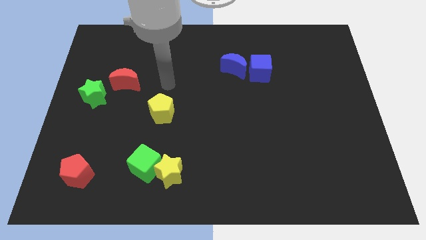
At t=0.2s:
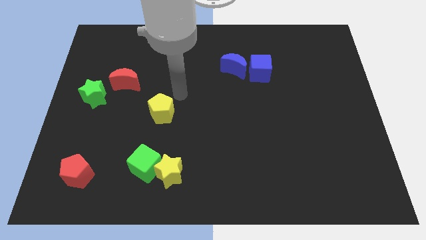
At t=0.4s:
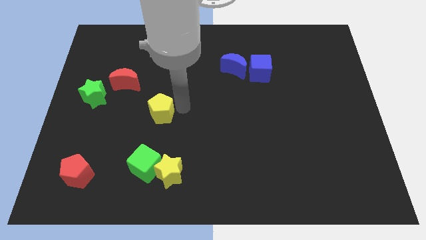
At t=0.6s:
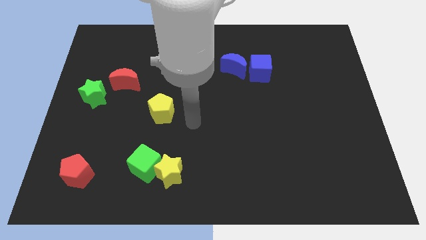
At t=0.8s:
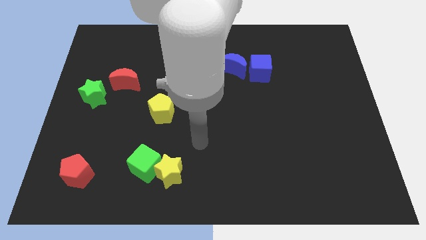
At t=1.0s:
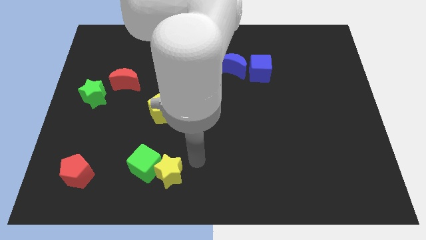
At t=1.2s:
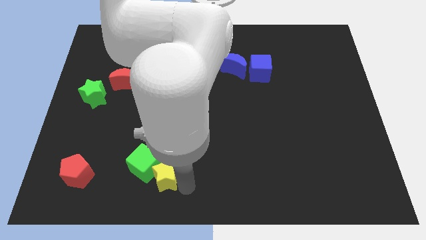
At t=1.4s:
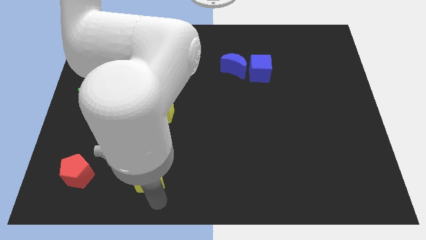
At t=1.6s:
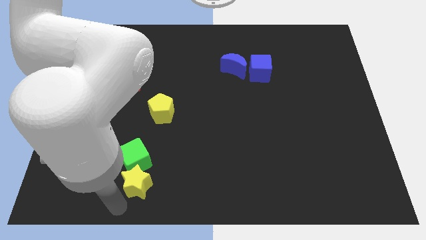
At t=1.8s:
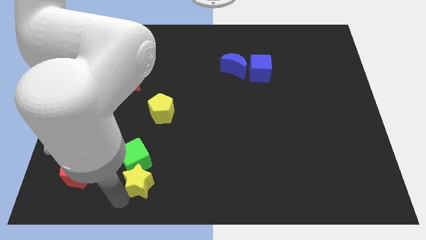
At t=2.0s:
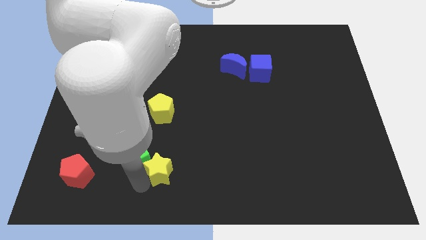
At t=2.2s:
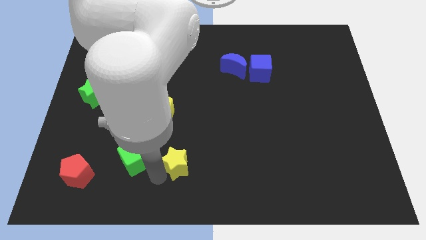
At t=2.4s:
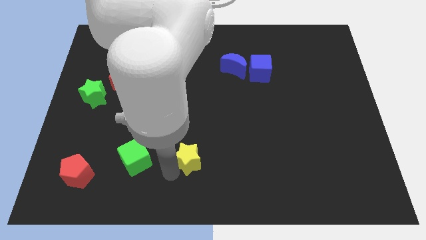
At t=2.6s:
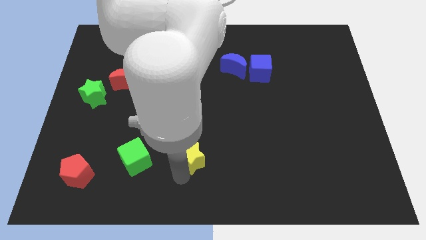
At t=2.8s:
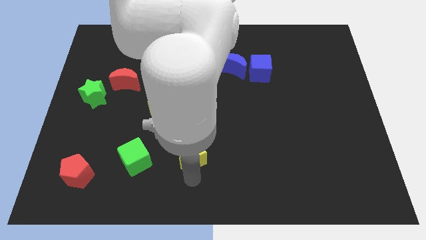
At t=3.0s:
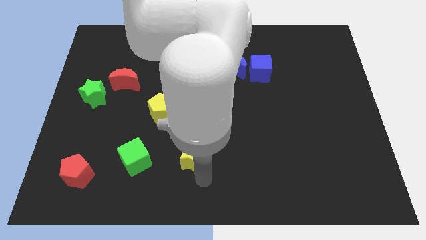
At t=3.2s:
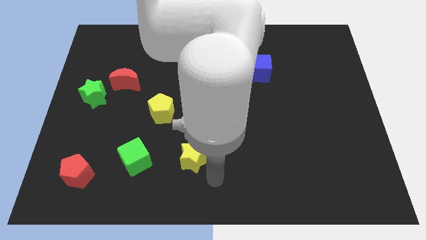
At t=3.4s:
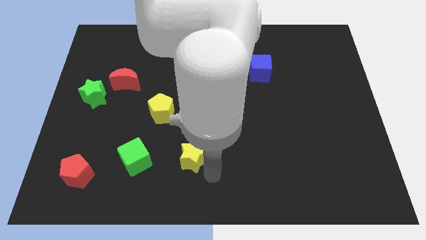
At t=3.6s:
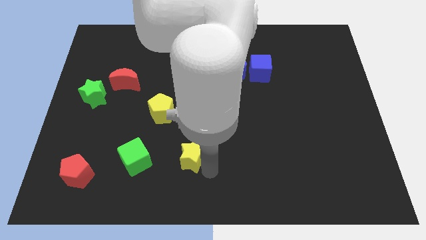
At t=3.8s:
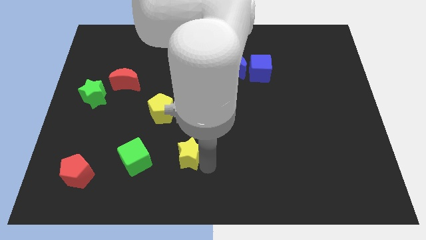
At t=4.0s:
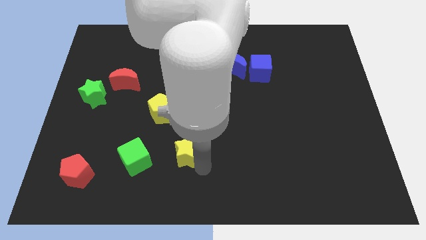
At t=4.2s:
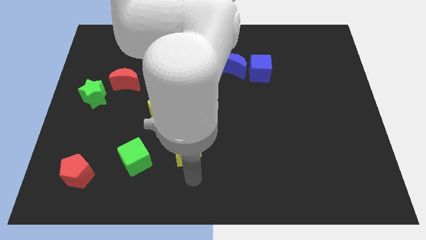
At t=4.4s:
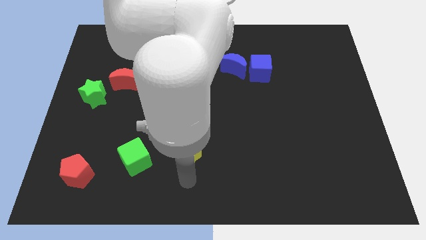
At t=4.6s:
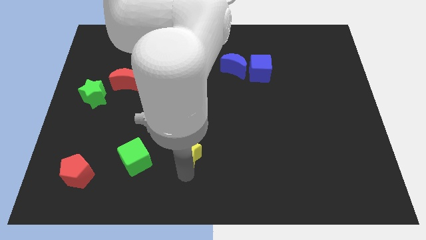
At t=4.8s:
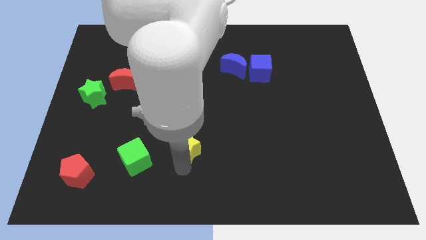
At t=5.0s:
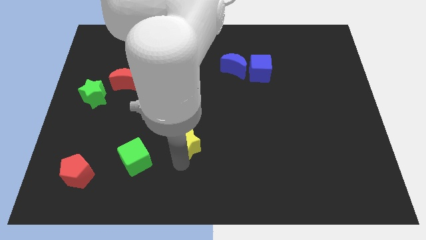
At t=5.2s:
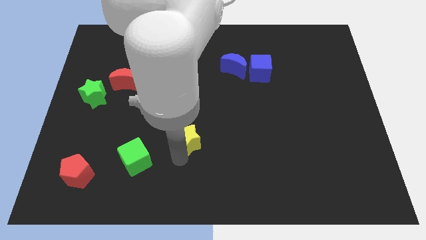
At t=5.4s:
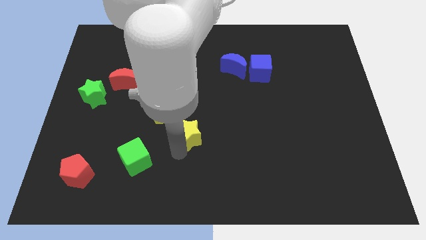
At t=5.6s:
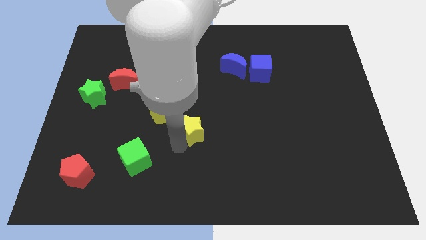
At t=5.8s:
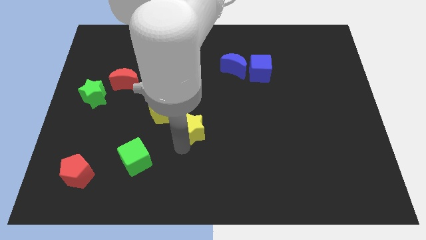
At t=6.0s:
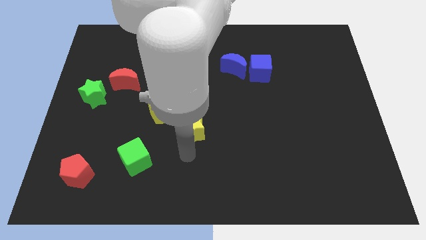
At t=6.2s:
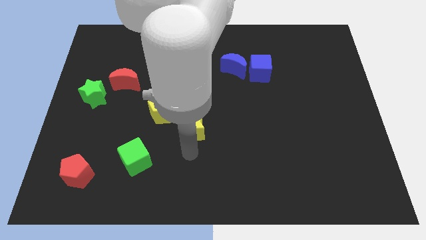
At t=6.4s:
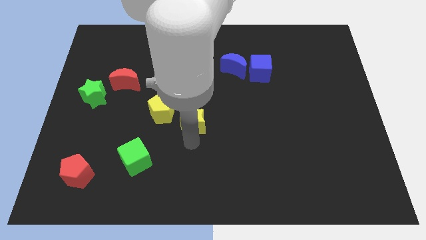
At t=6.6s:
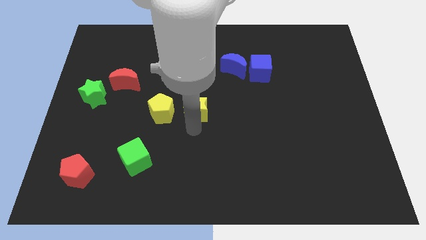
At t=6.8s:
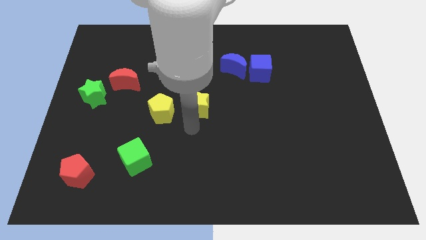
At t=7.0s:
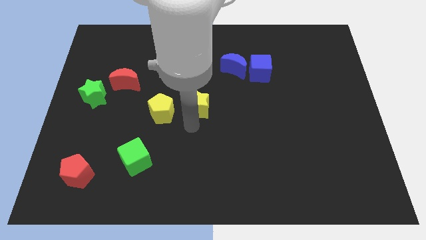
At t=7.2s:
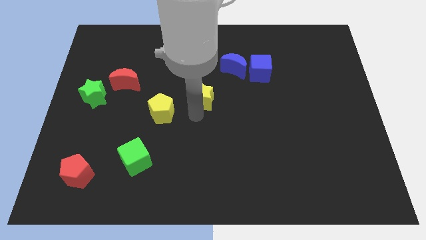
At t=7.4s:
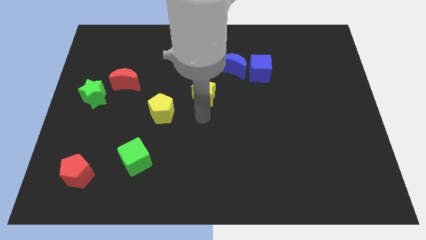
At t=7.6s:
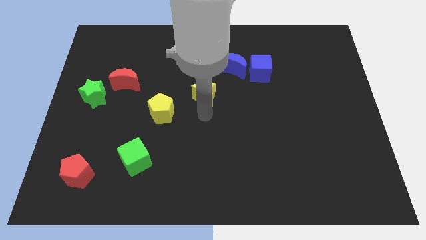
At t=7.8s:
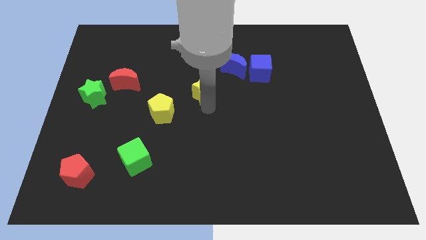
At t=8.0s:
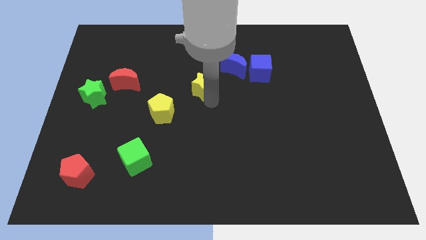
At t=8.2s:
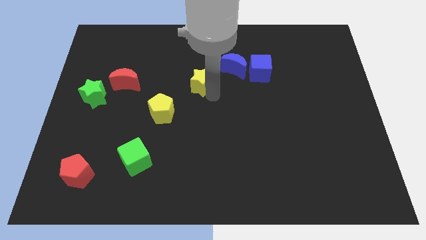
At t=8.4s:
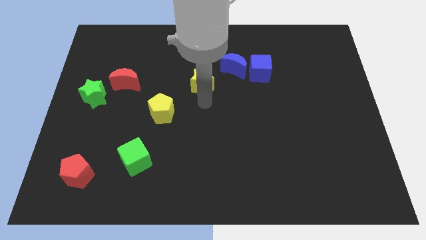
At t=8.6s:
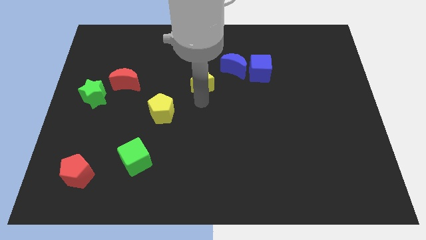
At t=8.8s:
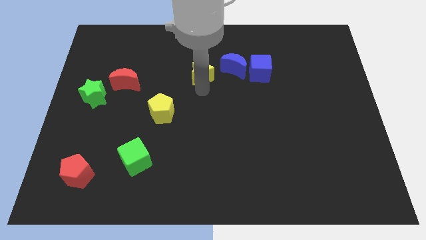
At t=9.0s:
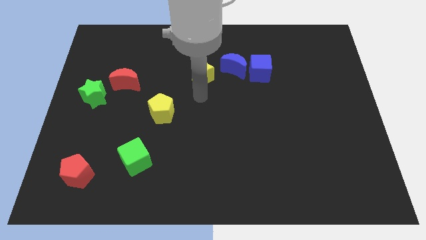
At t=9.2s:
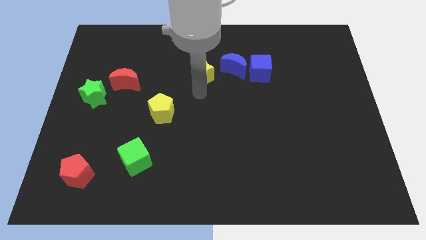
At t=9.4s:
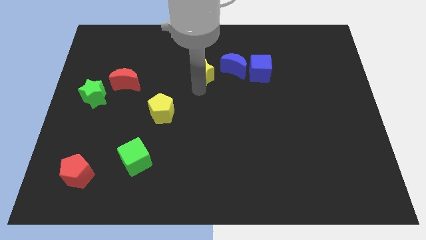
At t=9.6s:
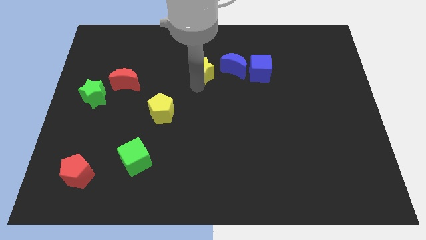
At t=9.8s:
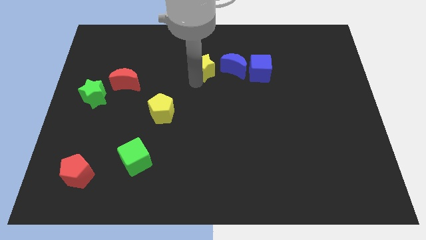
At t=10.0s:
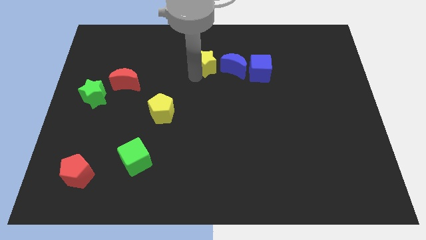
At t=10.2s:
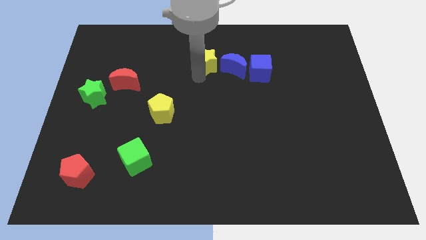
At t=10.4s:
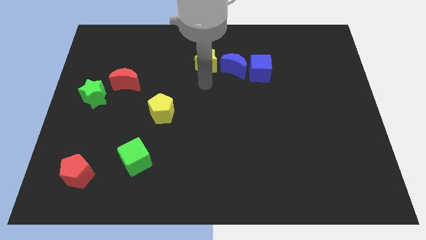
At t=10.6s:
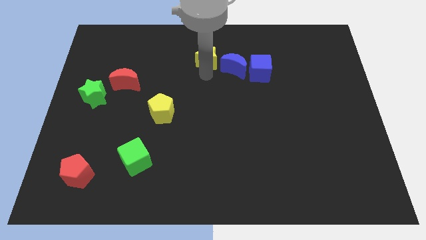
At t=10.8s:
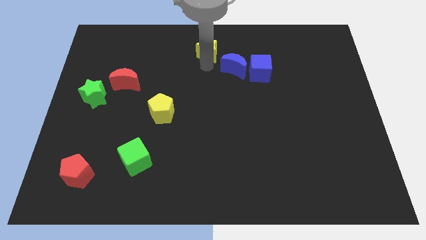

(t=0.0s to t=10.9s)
put the yellow star to the towards your base
